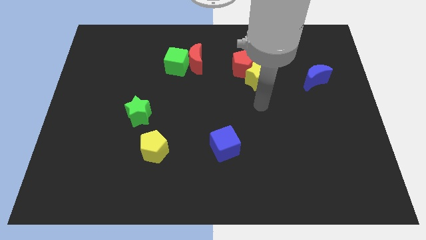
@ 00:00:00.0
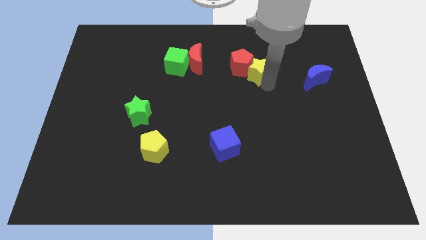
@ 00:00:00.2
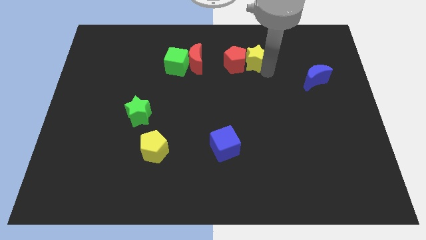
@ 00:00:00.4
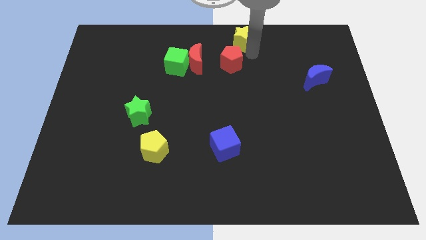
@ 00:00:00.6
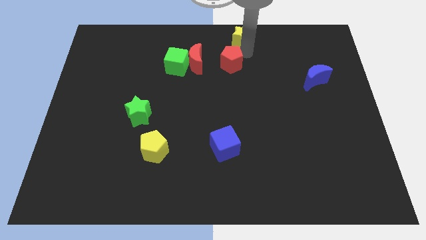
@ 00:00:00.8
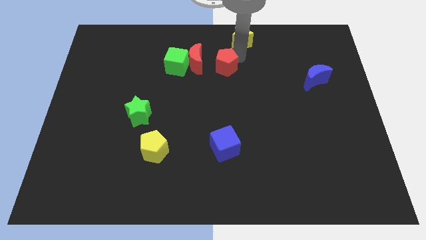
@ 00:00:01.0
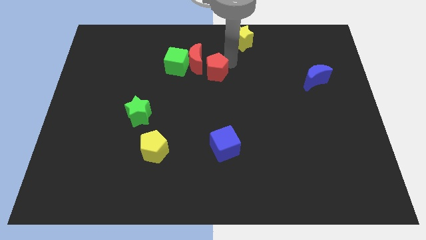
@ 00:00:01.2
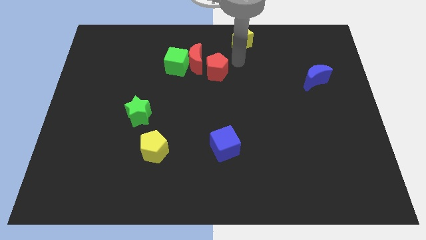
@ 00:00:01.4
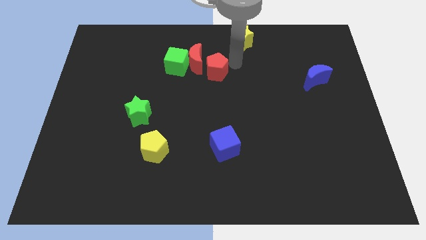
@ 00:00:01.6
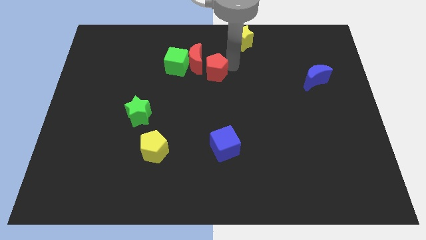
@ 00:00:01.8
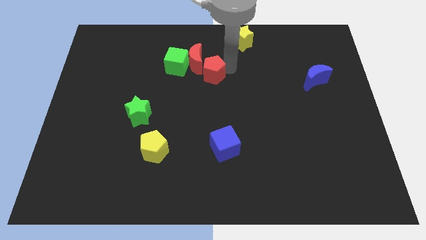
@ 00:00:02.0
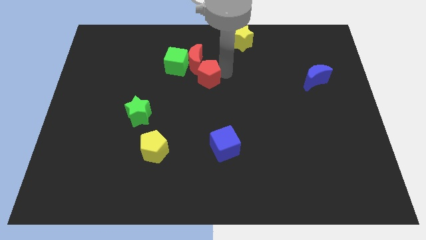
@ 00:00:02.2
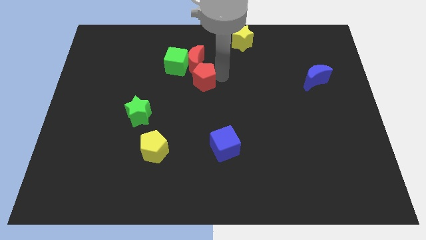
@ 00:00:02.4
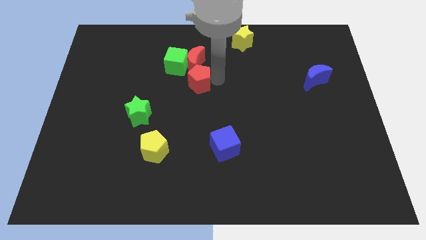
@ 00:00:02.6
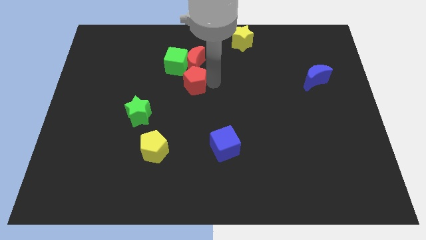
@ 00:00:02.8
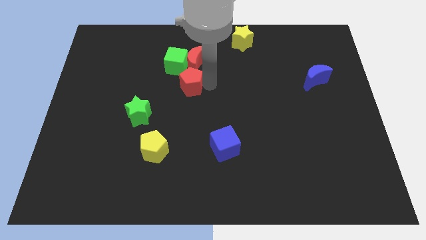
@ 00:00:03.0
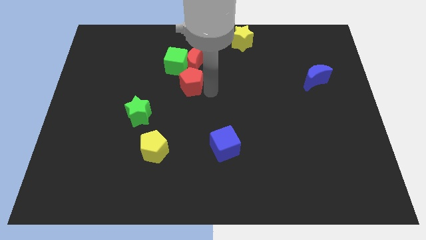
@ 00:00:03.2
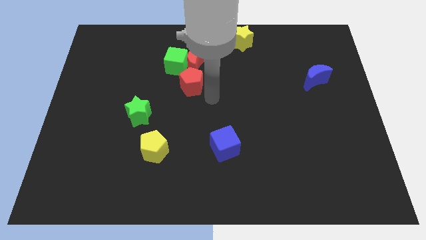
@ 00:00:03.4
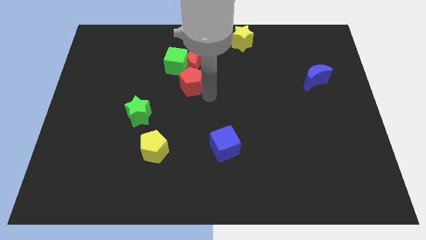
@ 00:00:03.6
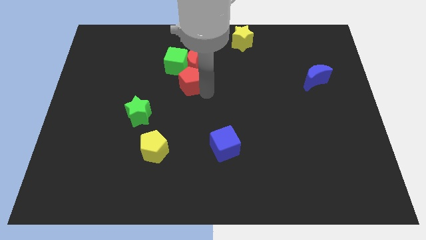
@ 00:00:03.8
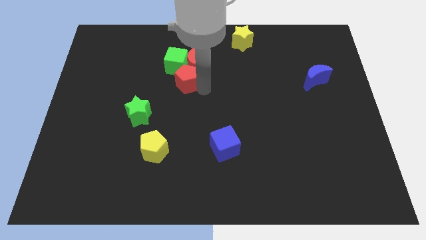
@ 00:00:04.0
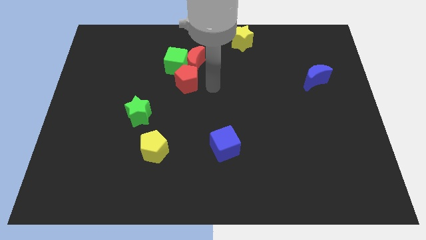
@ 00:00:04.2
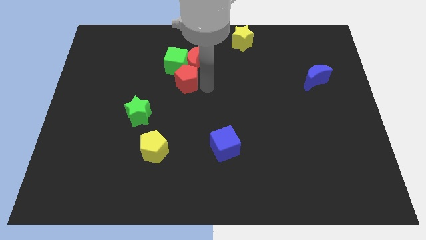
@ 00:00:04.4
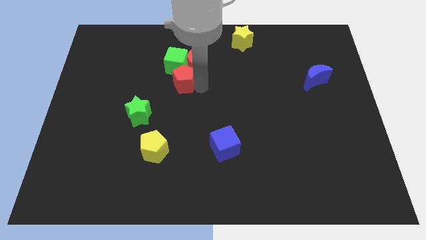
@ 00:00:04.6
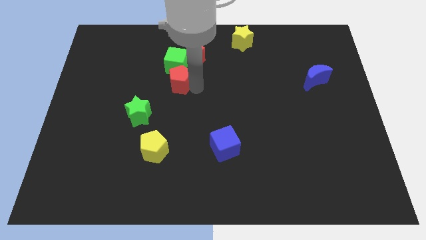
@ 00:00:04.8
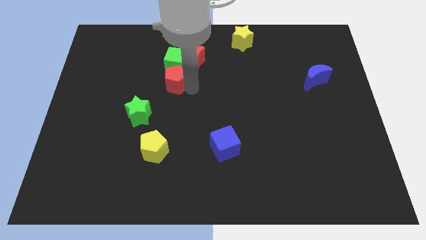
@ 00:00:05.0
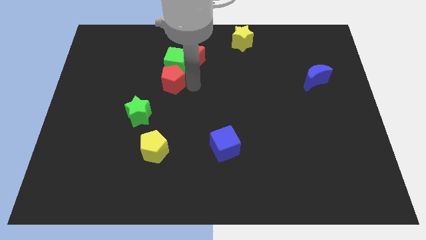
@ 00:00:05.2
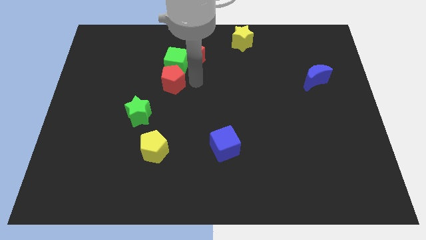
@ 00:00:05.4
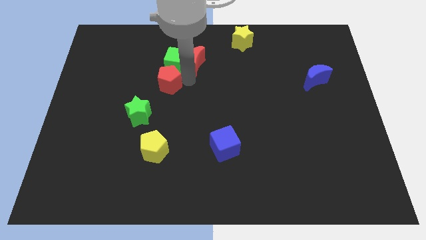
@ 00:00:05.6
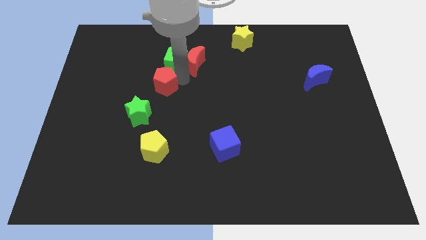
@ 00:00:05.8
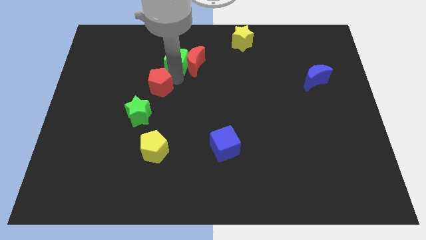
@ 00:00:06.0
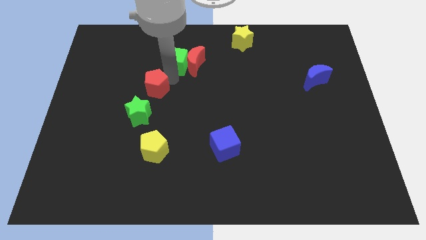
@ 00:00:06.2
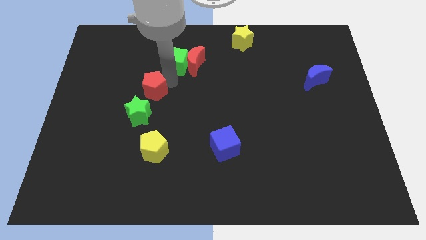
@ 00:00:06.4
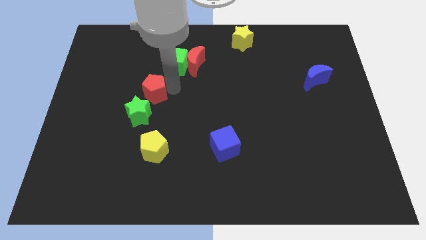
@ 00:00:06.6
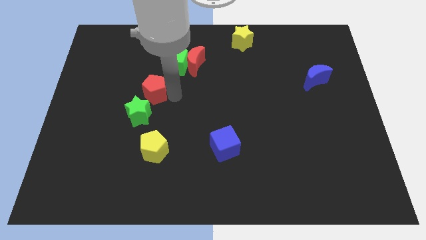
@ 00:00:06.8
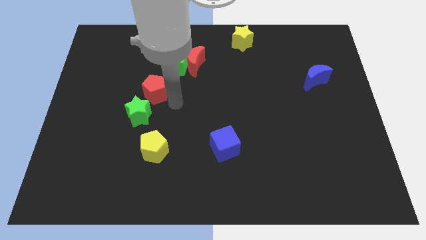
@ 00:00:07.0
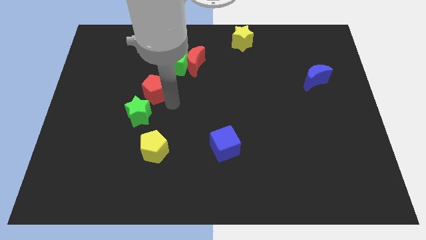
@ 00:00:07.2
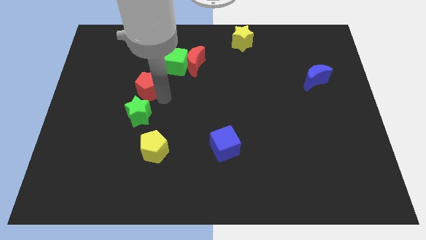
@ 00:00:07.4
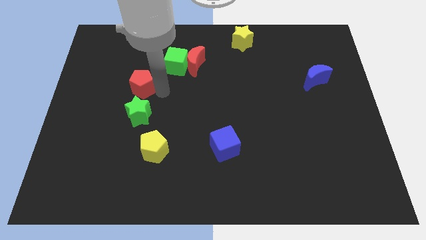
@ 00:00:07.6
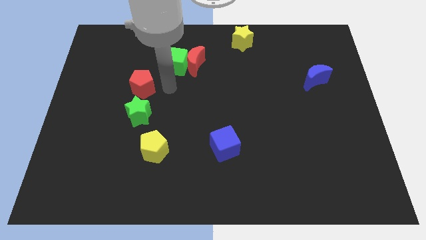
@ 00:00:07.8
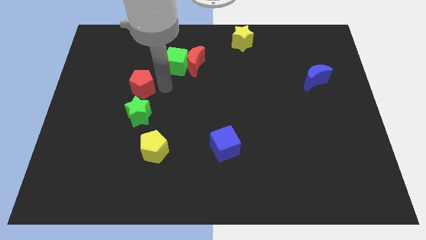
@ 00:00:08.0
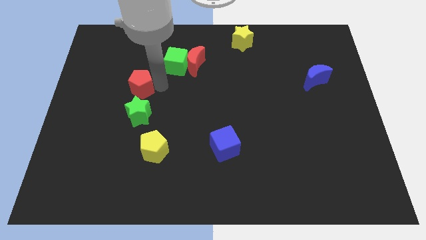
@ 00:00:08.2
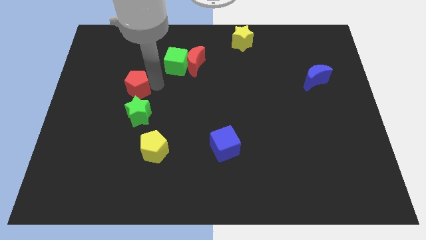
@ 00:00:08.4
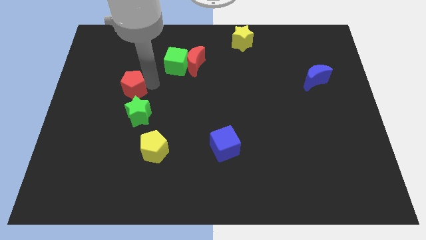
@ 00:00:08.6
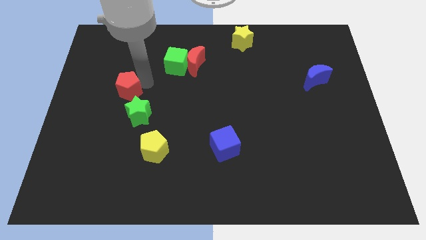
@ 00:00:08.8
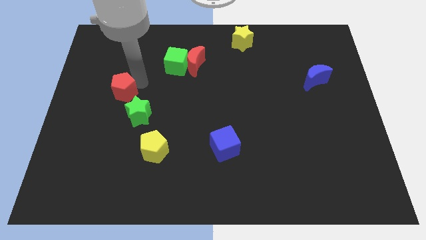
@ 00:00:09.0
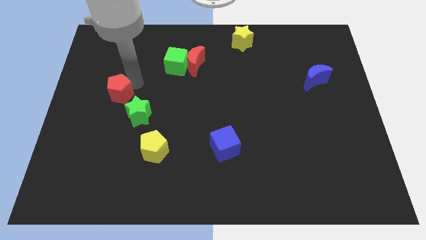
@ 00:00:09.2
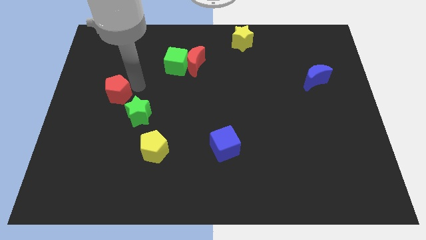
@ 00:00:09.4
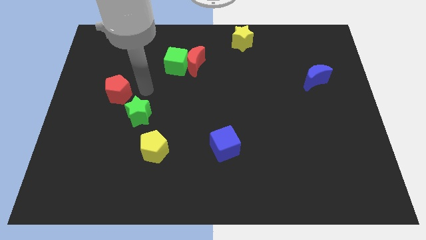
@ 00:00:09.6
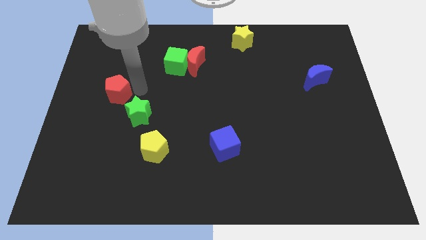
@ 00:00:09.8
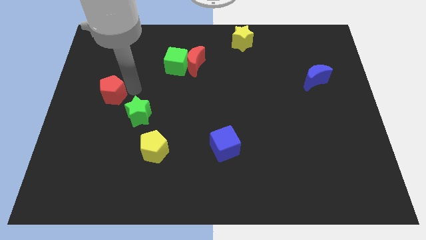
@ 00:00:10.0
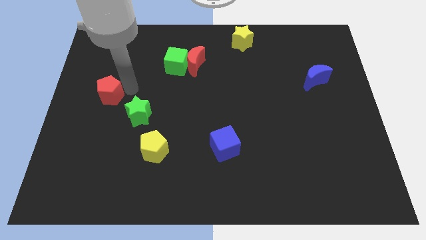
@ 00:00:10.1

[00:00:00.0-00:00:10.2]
put the red pentagon to the left side

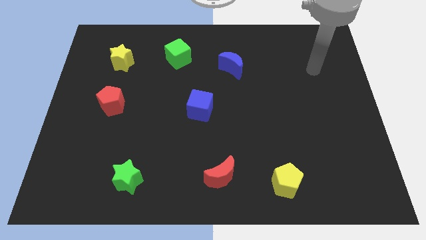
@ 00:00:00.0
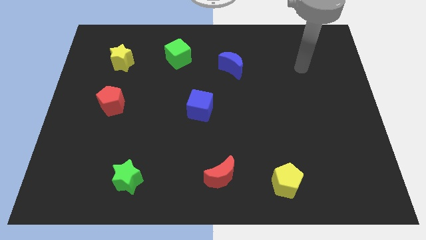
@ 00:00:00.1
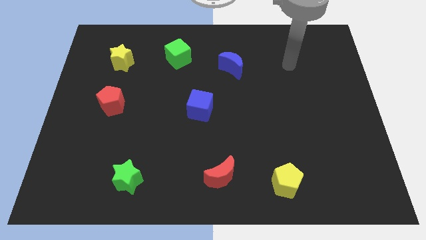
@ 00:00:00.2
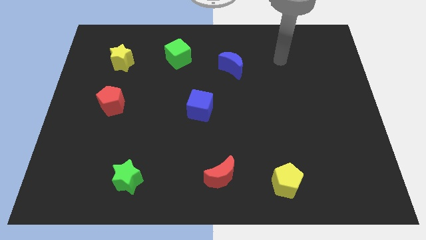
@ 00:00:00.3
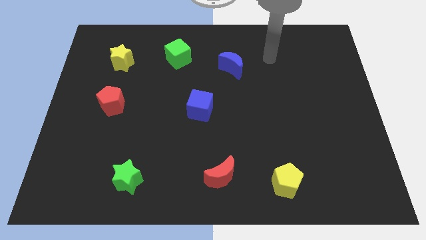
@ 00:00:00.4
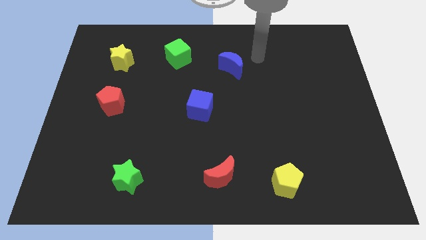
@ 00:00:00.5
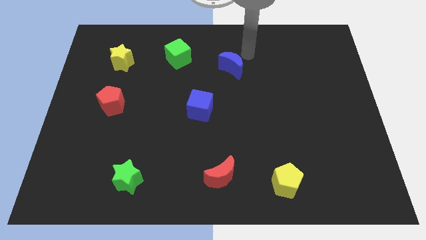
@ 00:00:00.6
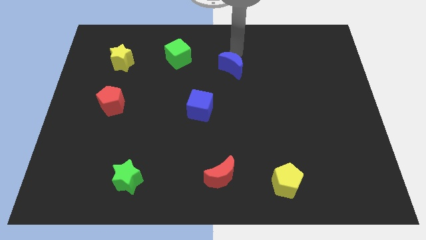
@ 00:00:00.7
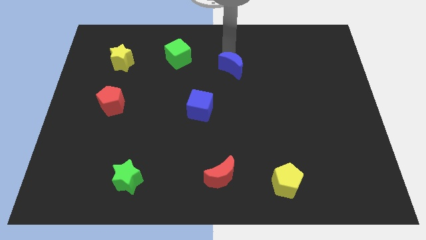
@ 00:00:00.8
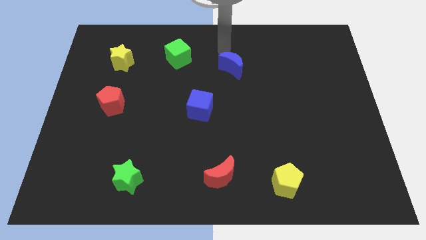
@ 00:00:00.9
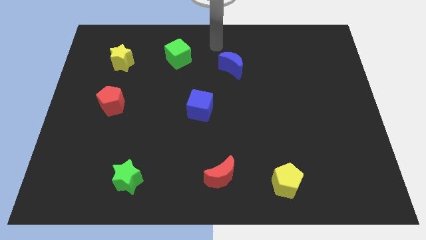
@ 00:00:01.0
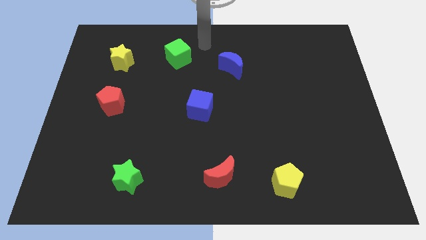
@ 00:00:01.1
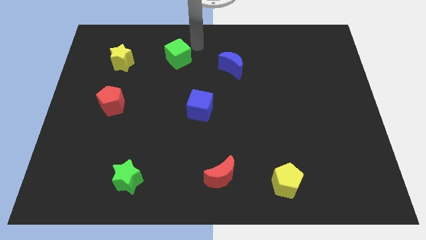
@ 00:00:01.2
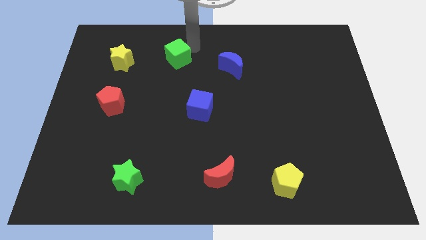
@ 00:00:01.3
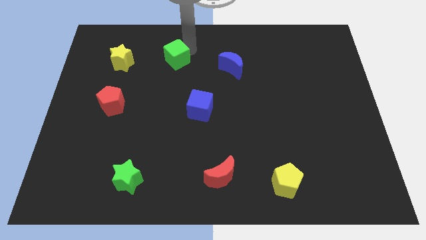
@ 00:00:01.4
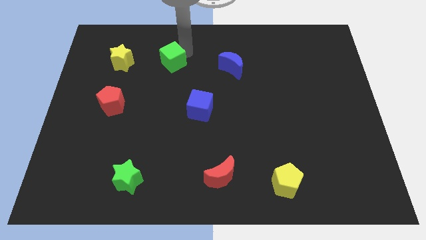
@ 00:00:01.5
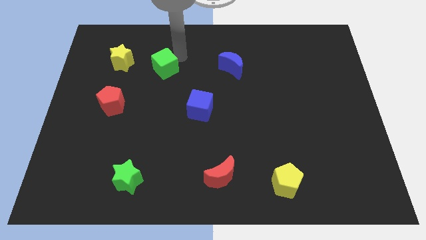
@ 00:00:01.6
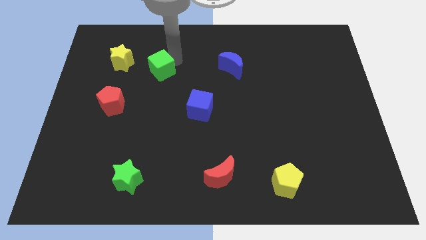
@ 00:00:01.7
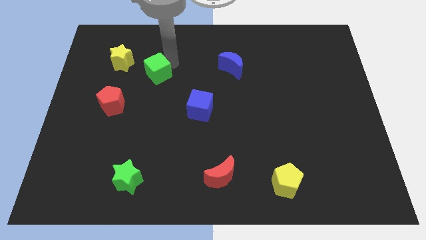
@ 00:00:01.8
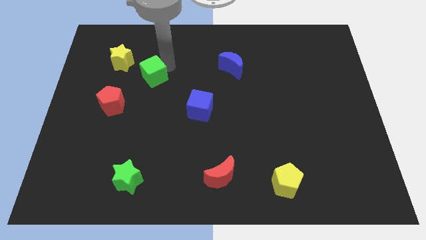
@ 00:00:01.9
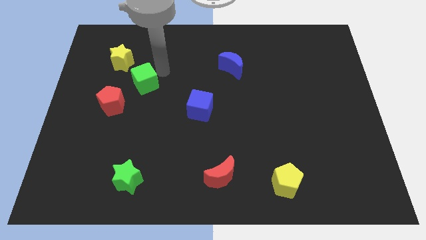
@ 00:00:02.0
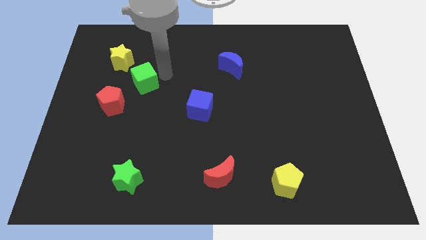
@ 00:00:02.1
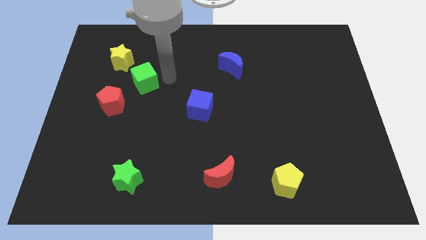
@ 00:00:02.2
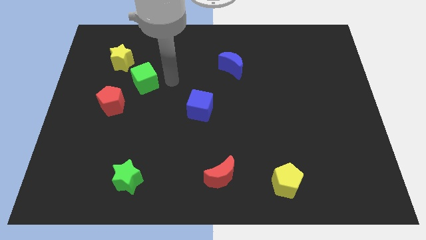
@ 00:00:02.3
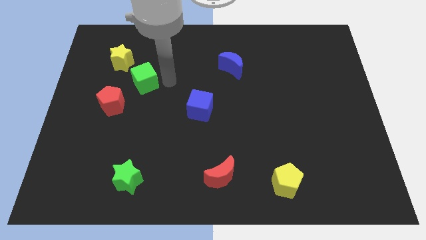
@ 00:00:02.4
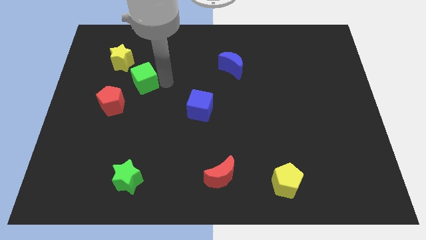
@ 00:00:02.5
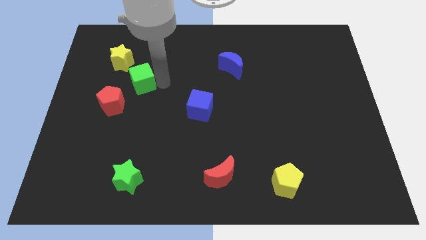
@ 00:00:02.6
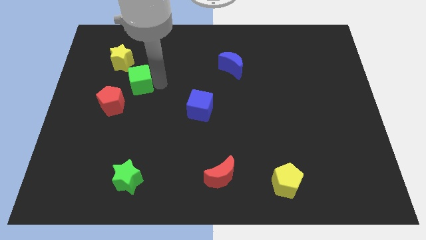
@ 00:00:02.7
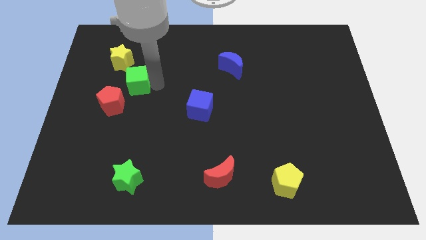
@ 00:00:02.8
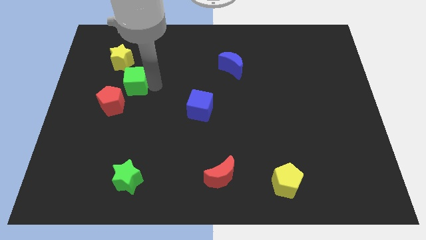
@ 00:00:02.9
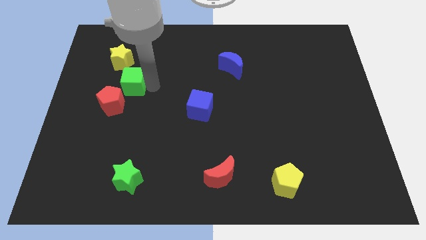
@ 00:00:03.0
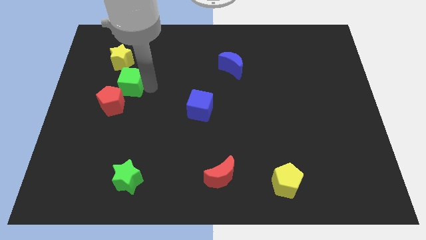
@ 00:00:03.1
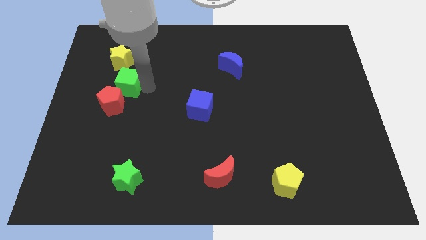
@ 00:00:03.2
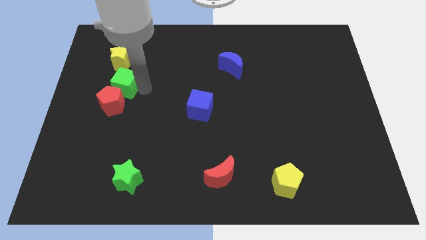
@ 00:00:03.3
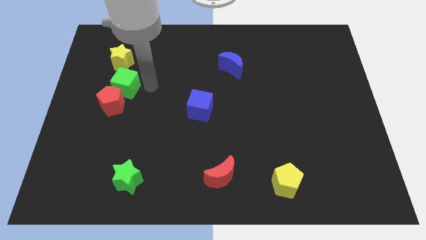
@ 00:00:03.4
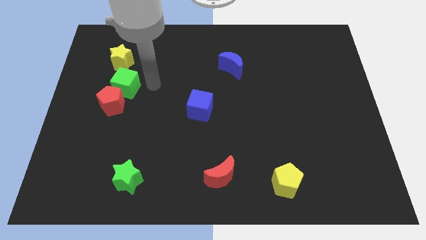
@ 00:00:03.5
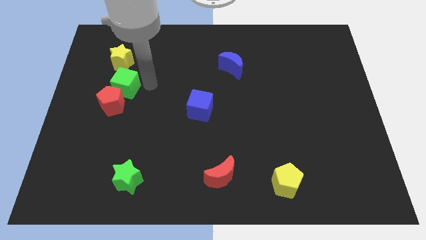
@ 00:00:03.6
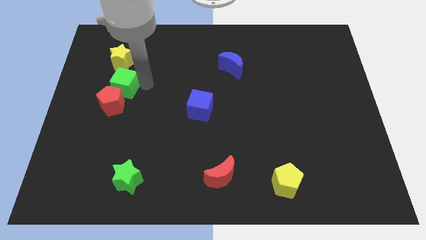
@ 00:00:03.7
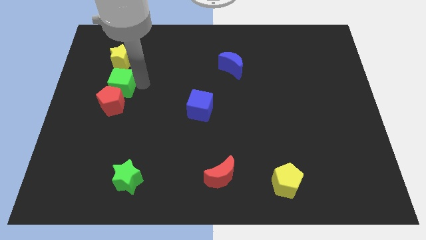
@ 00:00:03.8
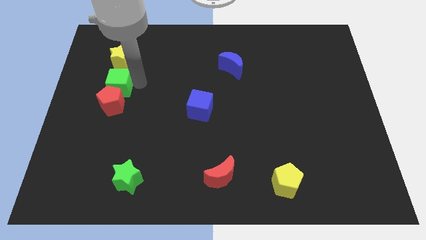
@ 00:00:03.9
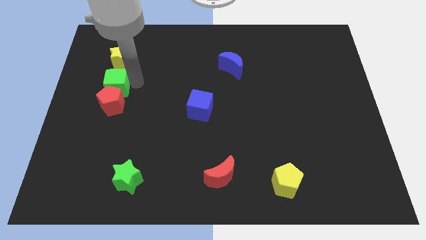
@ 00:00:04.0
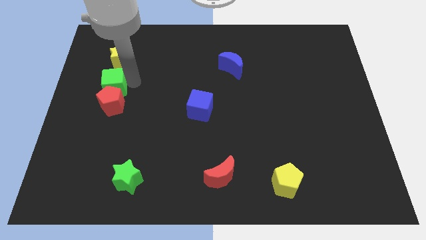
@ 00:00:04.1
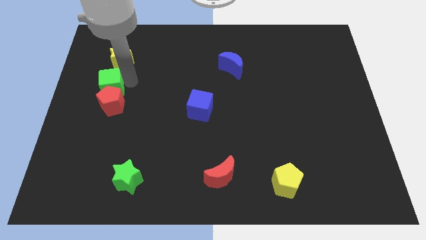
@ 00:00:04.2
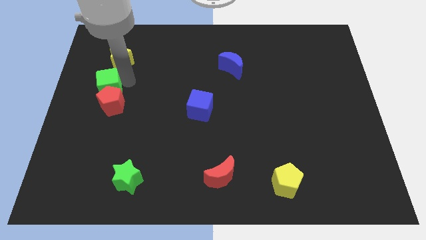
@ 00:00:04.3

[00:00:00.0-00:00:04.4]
put the green cube to the left side
